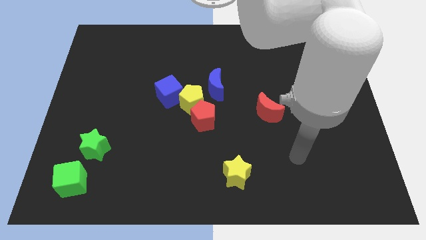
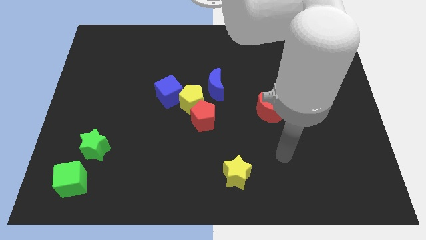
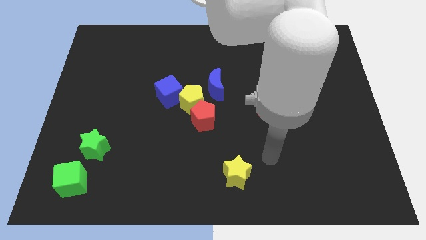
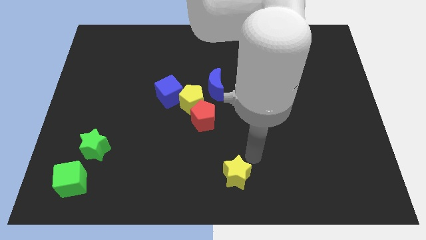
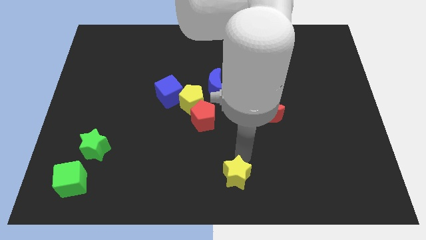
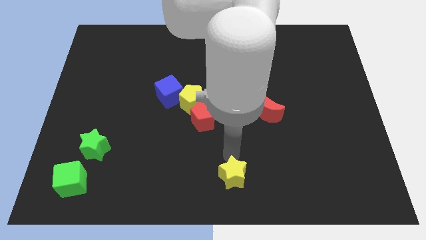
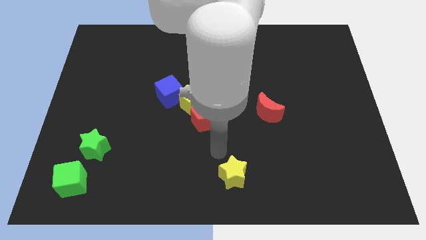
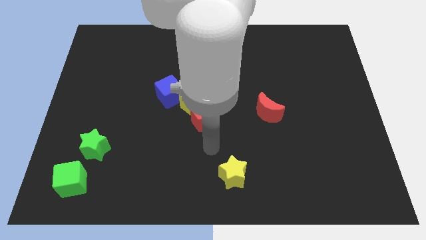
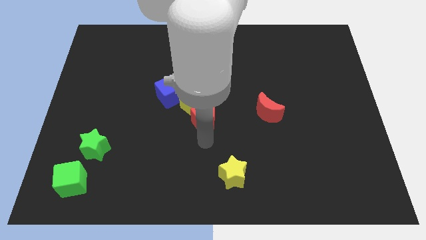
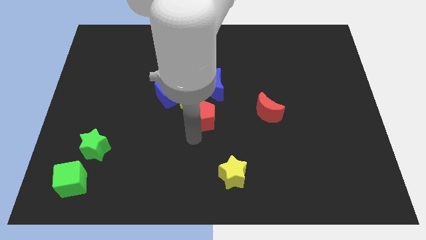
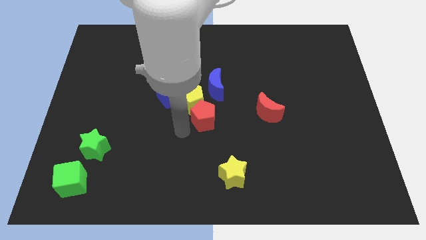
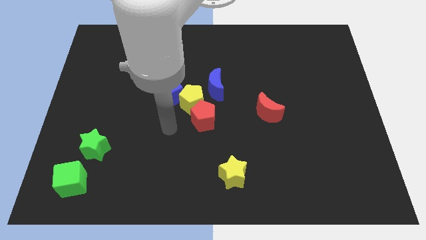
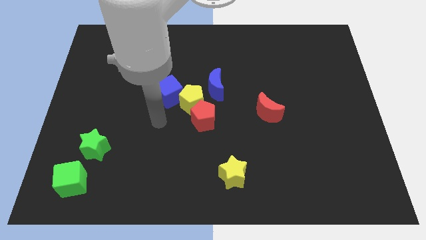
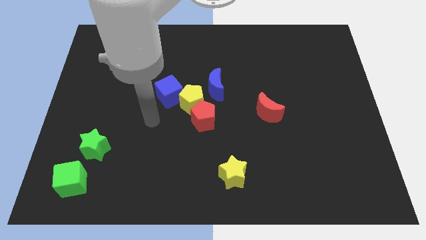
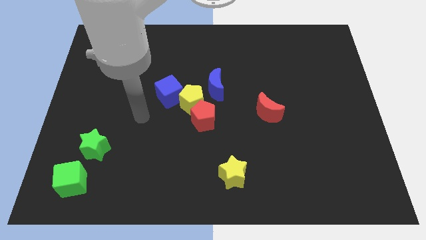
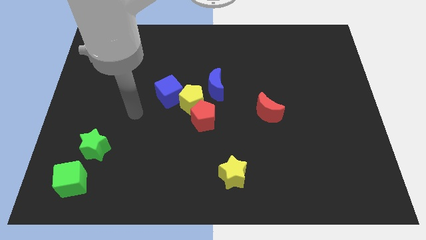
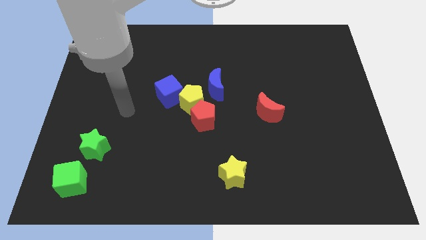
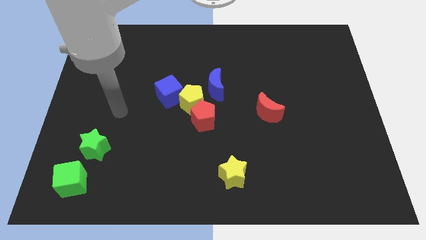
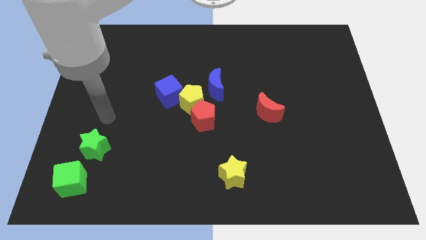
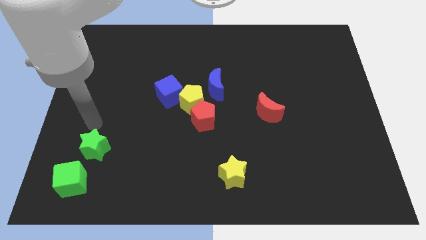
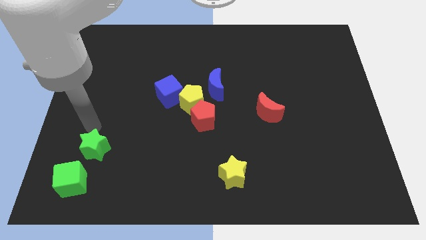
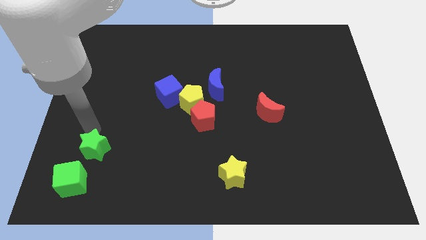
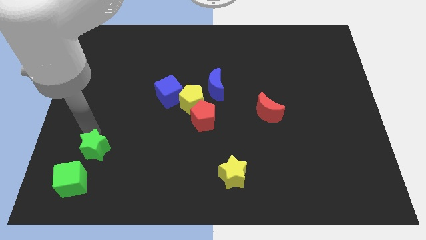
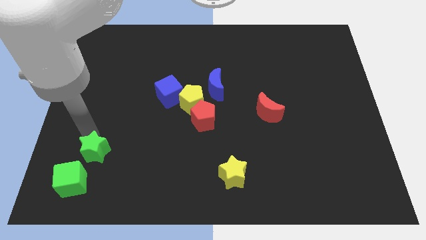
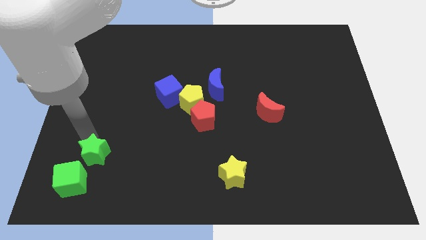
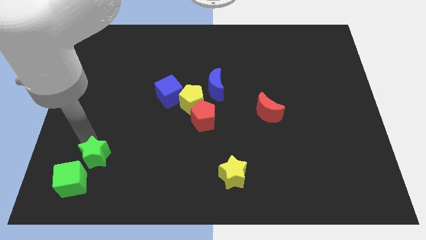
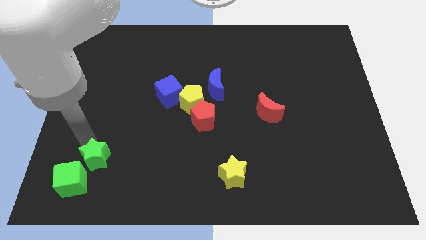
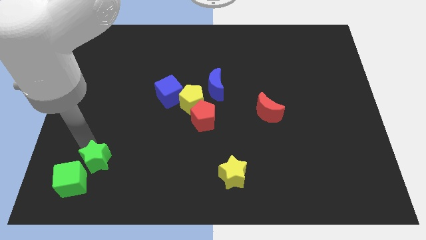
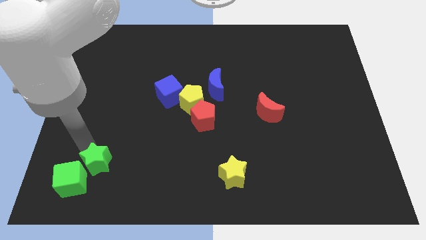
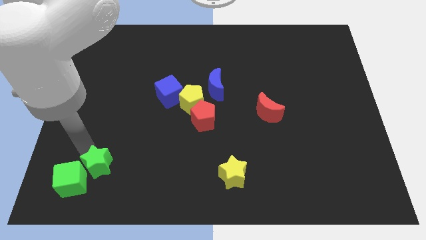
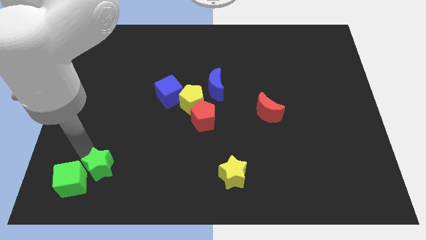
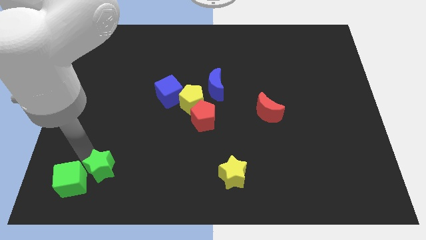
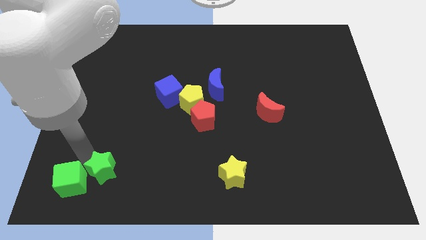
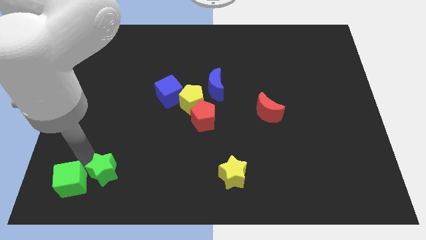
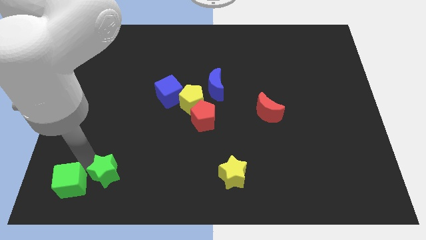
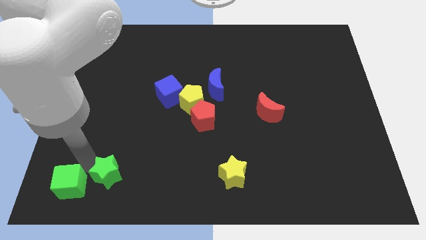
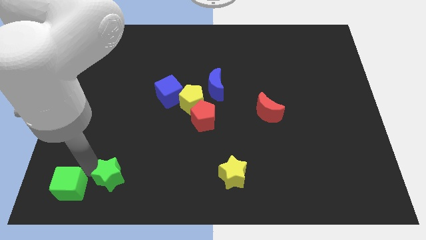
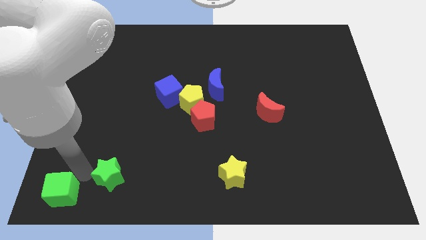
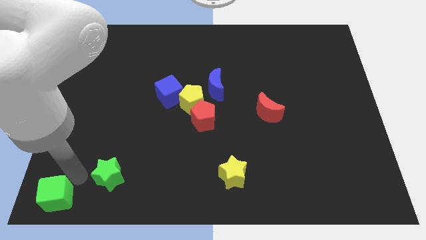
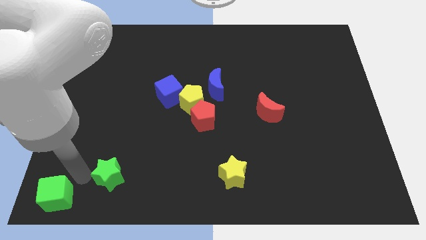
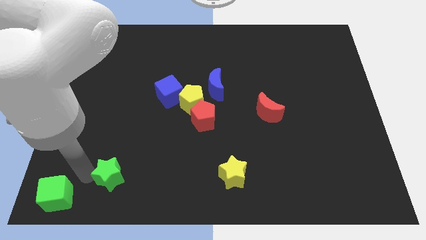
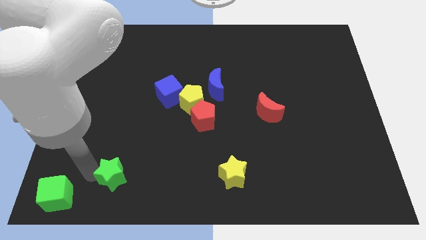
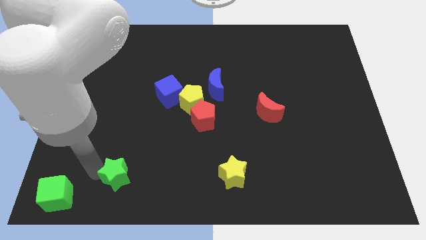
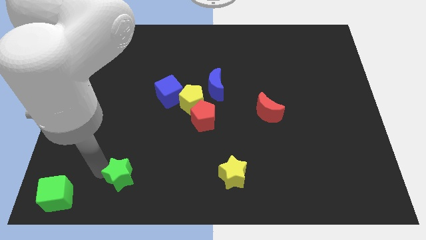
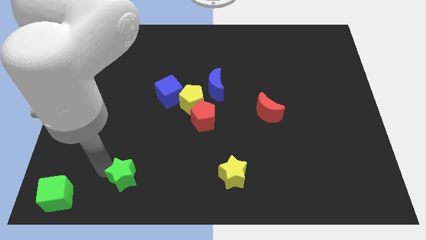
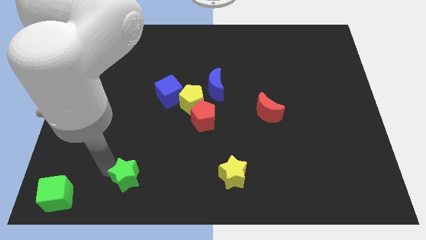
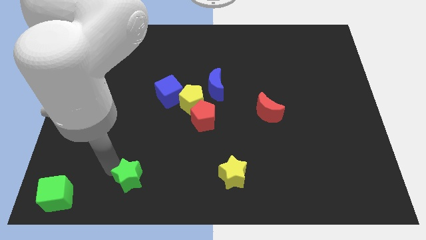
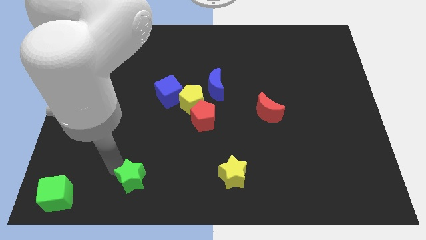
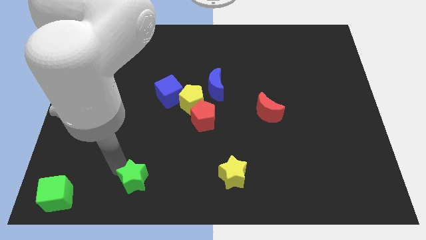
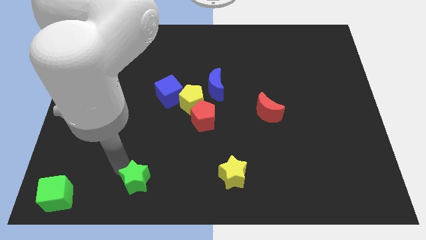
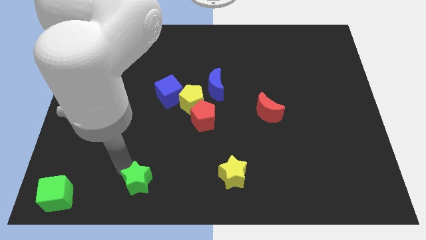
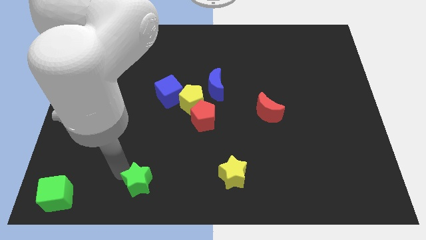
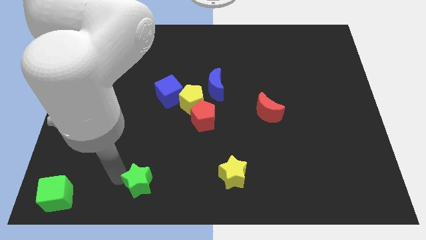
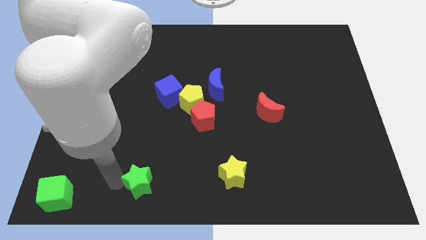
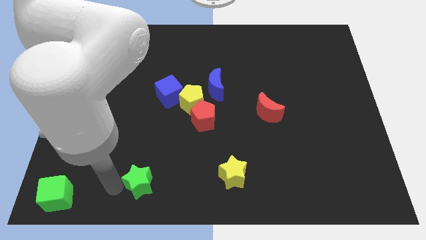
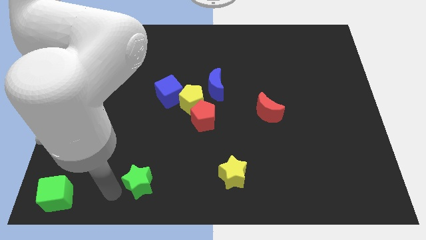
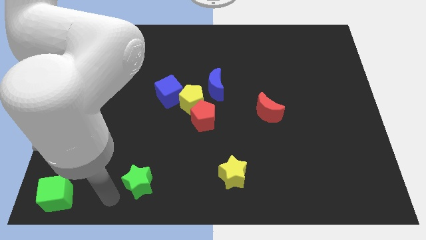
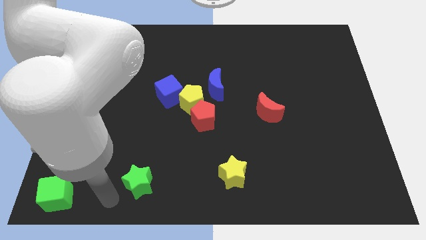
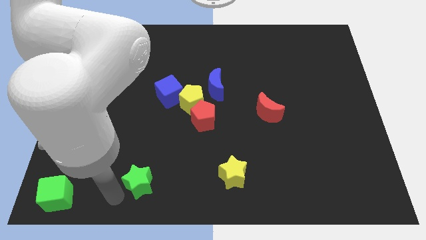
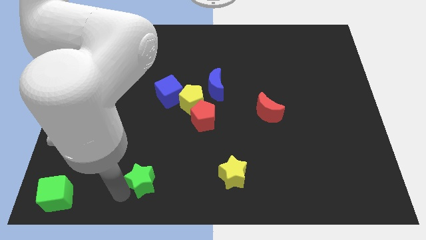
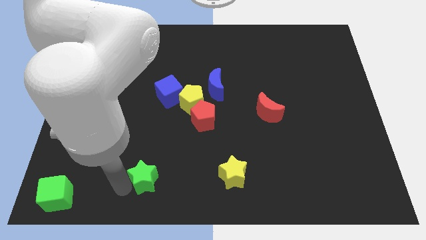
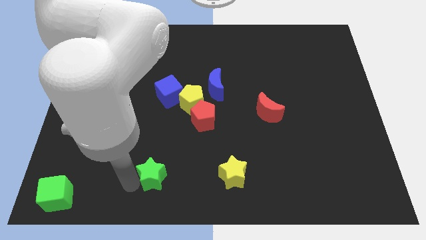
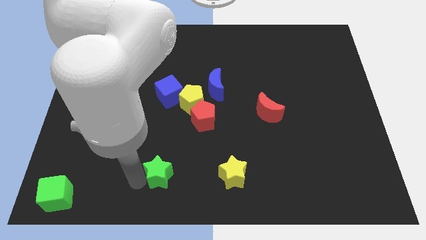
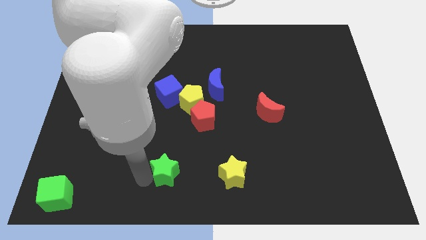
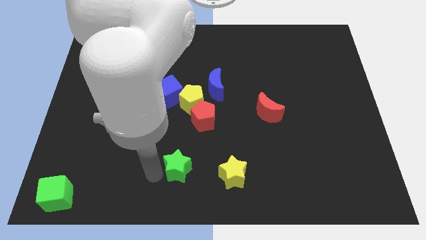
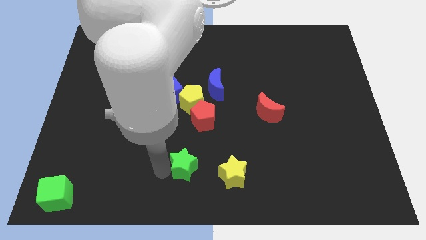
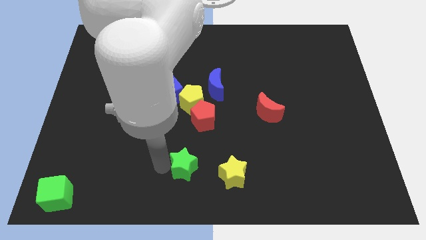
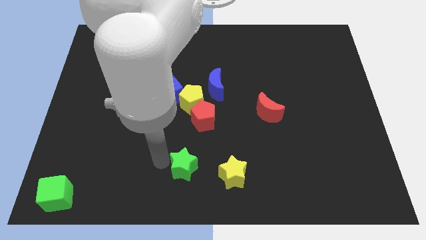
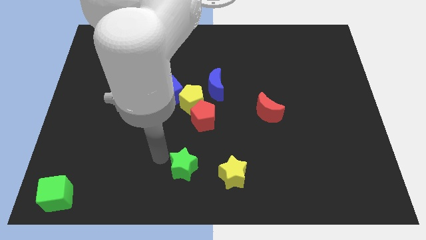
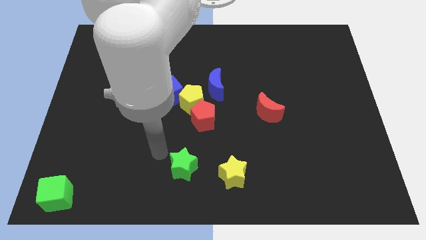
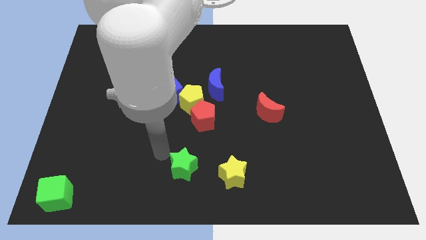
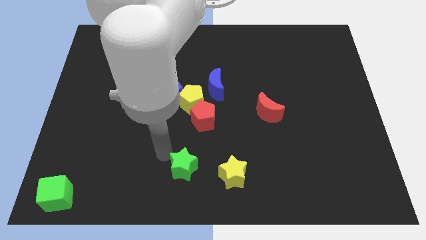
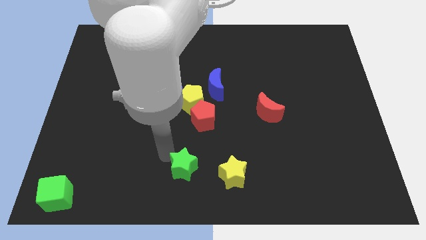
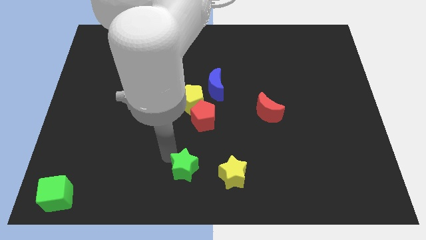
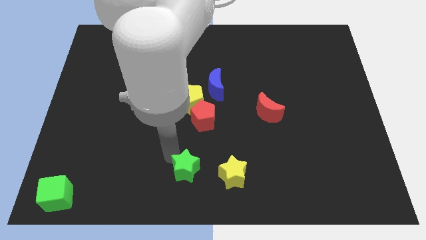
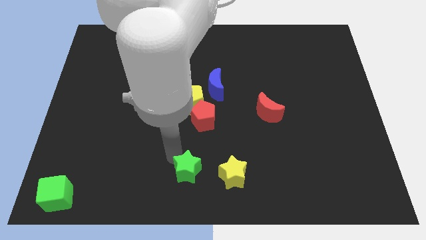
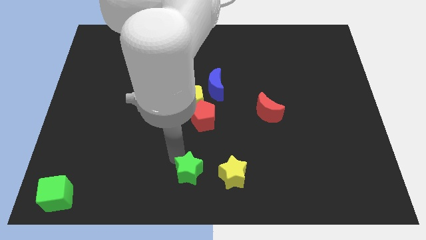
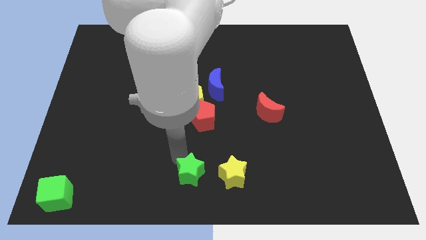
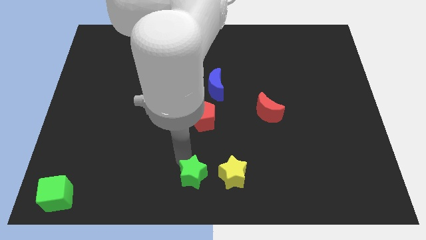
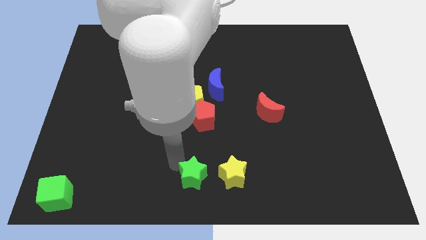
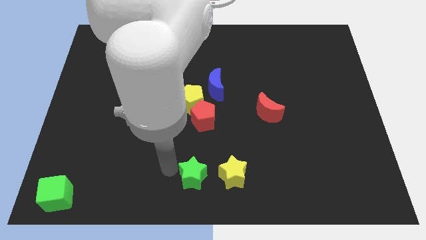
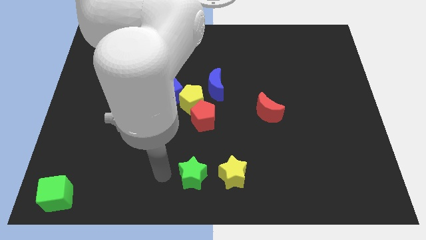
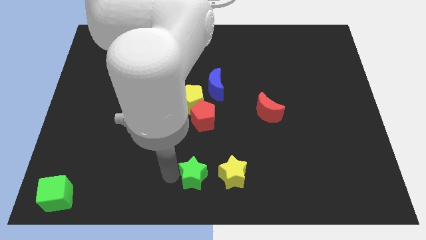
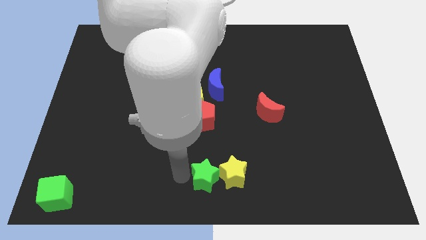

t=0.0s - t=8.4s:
move the green star next to the yellow star
